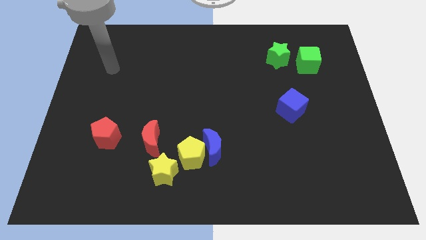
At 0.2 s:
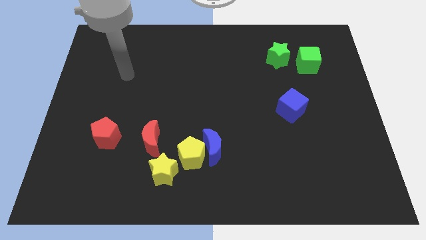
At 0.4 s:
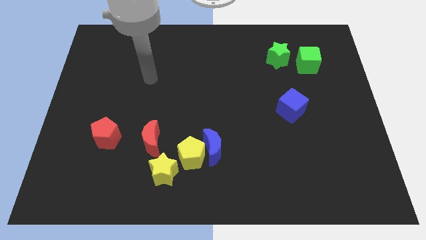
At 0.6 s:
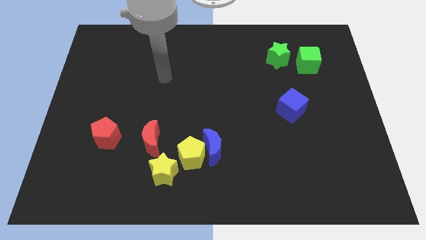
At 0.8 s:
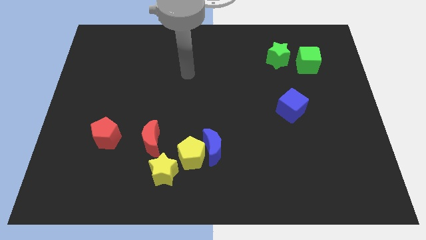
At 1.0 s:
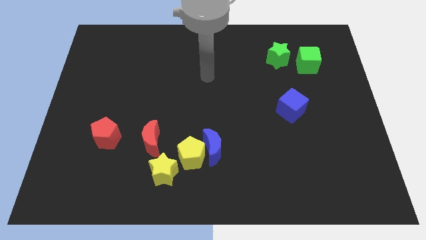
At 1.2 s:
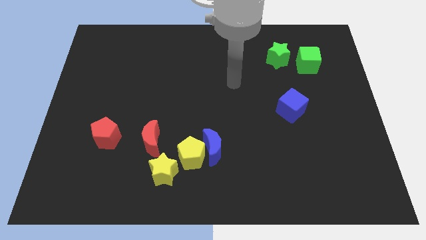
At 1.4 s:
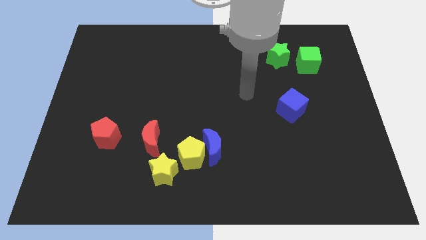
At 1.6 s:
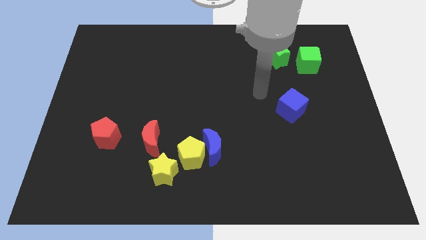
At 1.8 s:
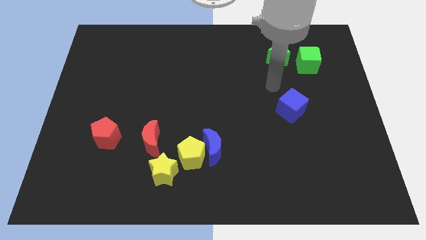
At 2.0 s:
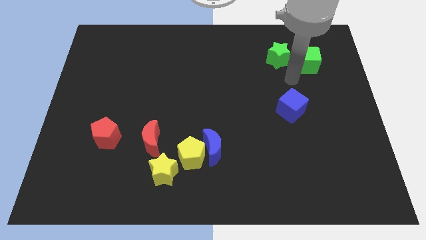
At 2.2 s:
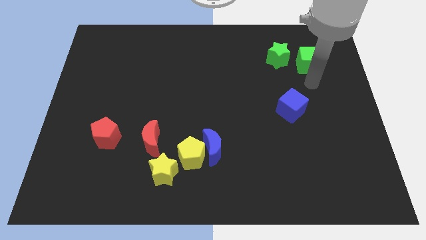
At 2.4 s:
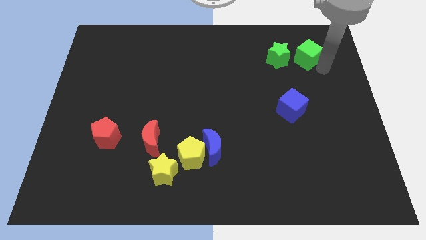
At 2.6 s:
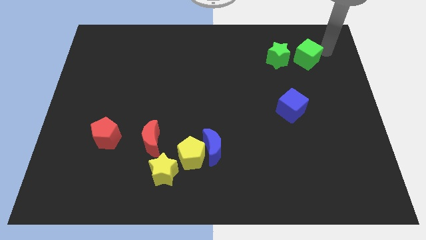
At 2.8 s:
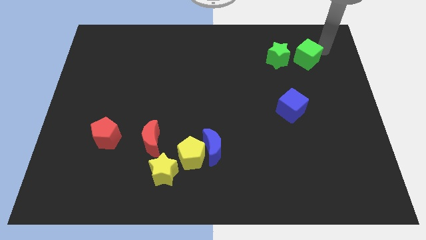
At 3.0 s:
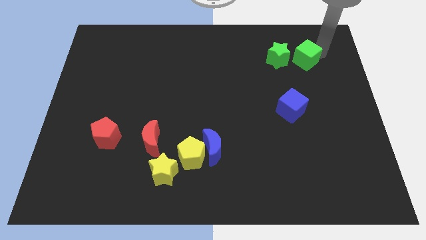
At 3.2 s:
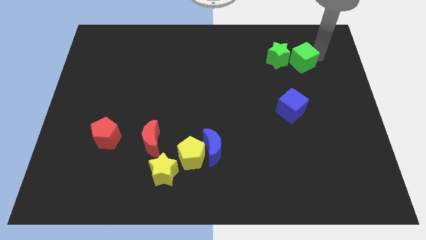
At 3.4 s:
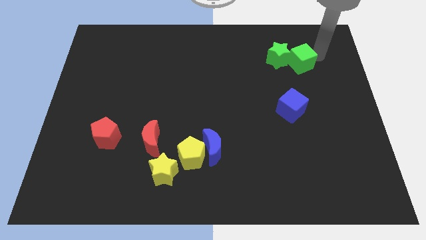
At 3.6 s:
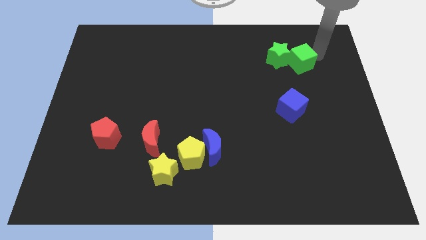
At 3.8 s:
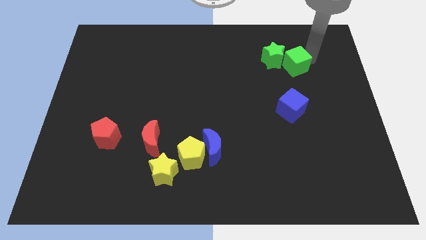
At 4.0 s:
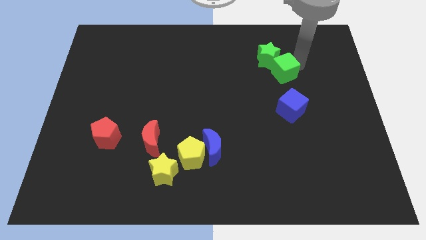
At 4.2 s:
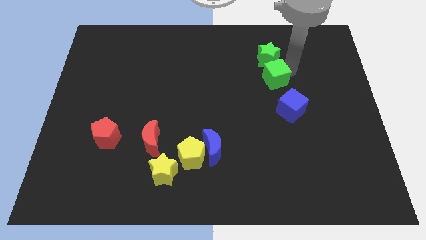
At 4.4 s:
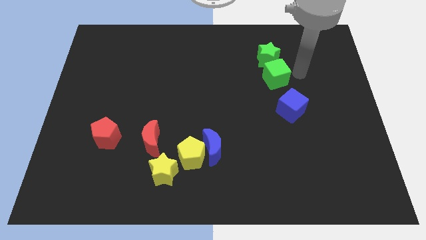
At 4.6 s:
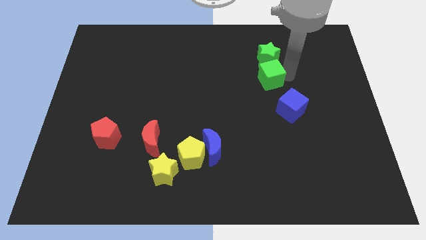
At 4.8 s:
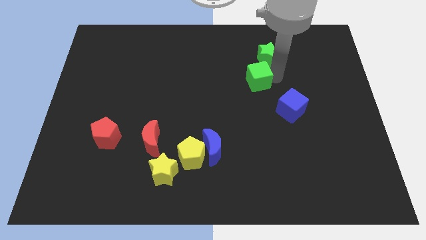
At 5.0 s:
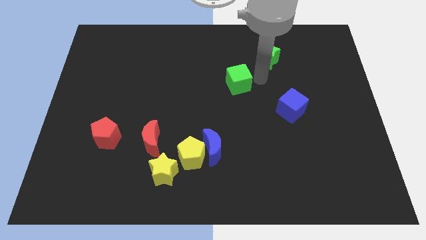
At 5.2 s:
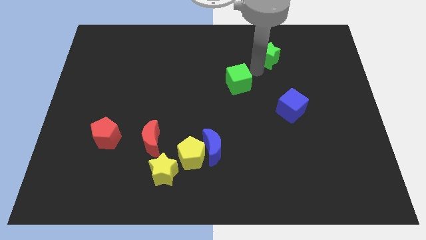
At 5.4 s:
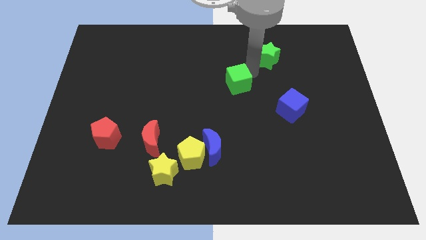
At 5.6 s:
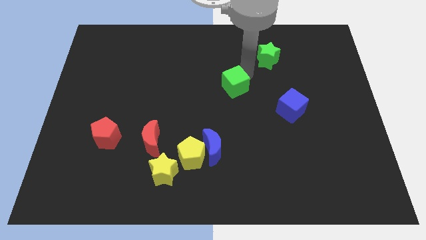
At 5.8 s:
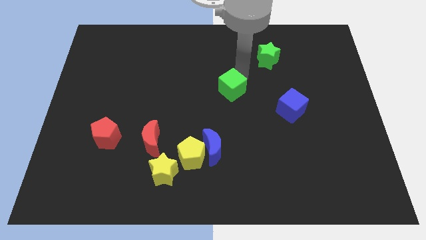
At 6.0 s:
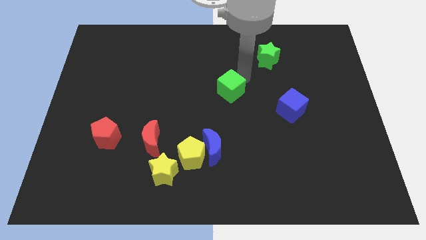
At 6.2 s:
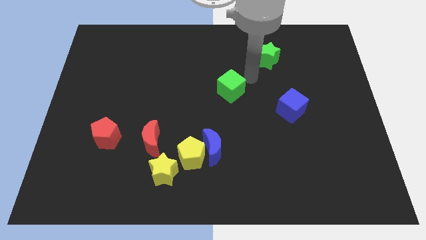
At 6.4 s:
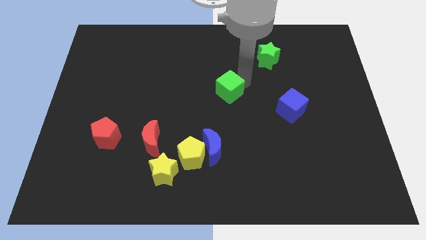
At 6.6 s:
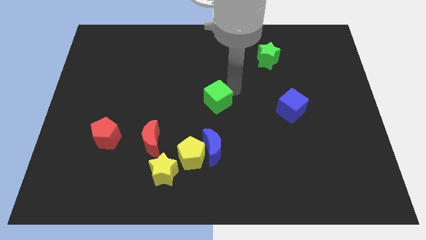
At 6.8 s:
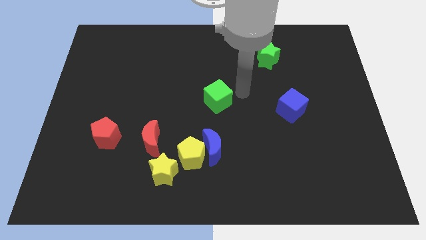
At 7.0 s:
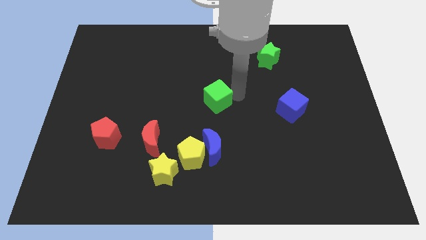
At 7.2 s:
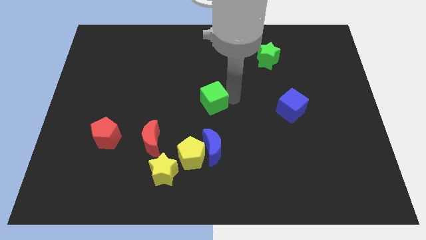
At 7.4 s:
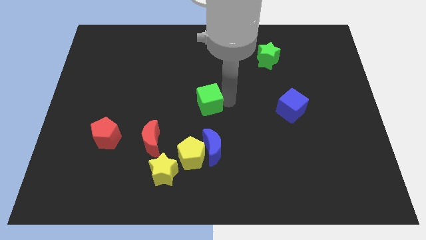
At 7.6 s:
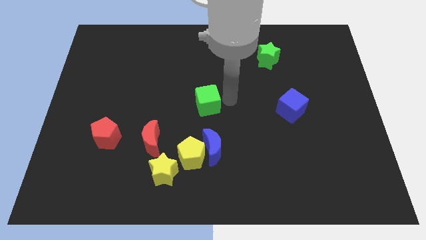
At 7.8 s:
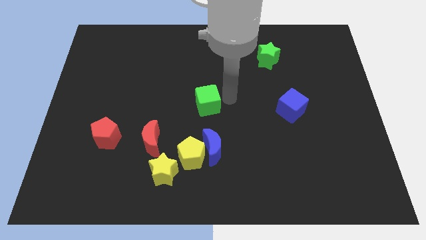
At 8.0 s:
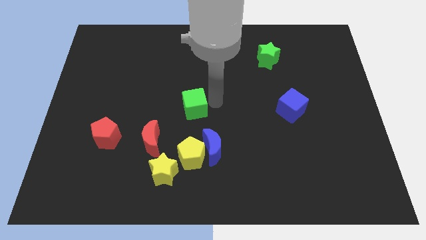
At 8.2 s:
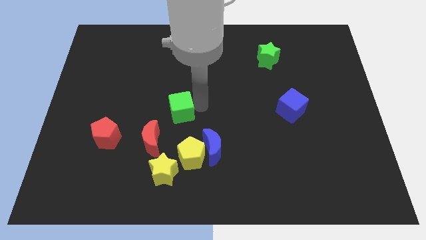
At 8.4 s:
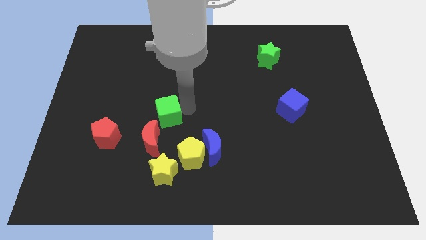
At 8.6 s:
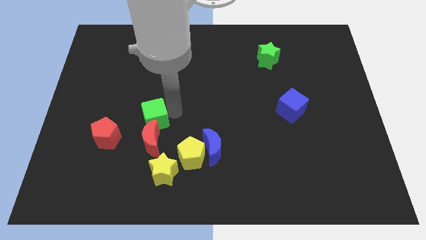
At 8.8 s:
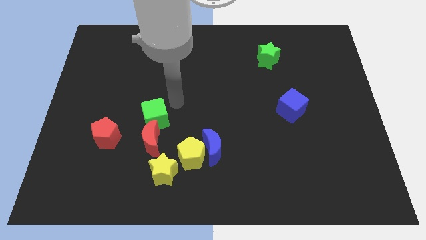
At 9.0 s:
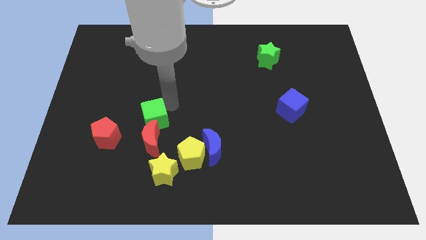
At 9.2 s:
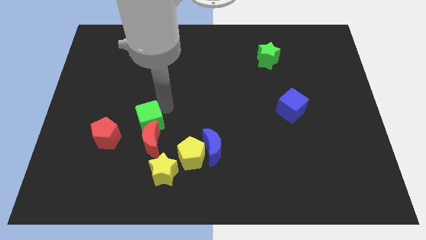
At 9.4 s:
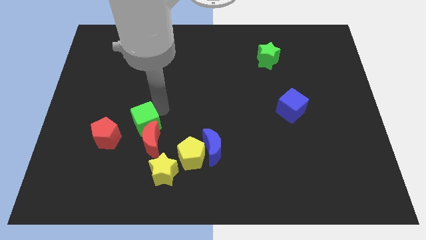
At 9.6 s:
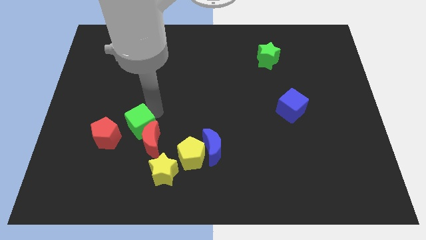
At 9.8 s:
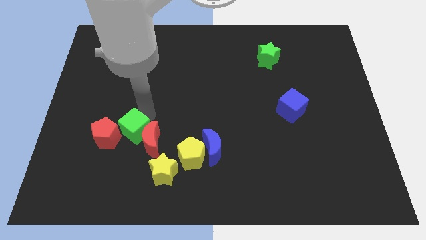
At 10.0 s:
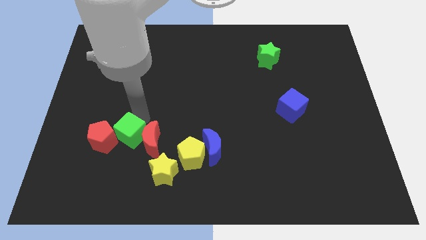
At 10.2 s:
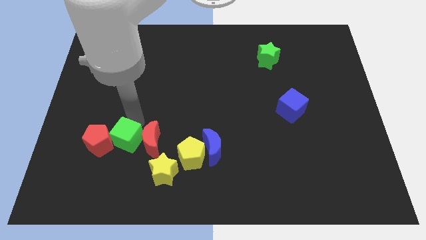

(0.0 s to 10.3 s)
move the green cube to the bottom right side of the red pentagon

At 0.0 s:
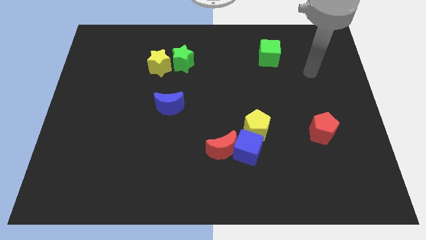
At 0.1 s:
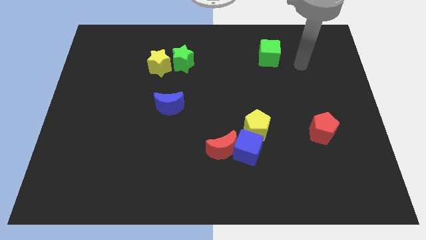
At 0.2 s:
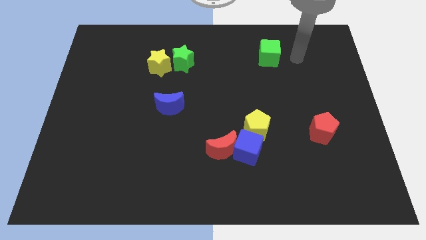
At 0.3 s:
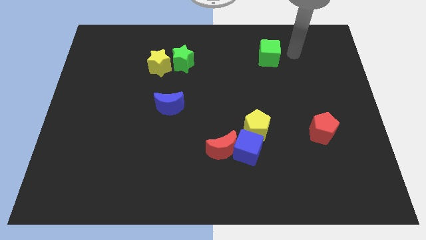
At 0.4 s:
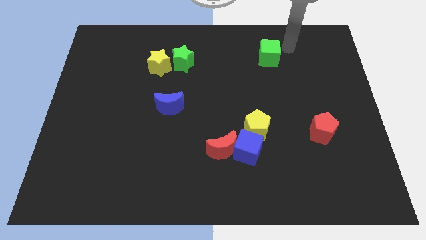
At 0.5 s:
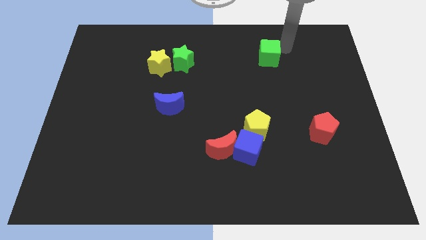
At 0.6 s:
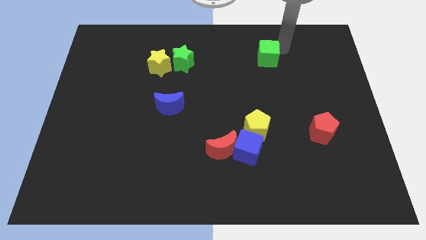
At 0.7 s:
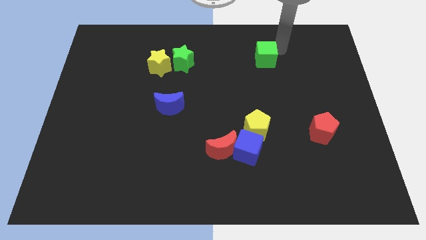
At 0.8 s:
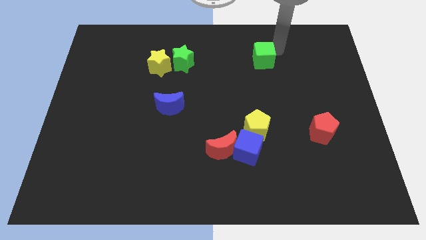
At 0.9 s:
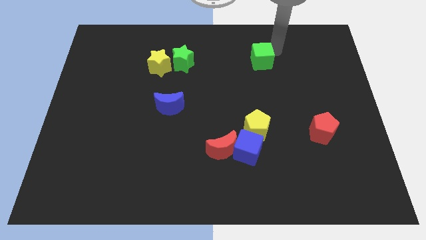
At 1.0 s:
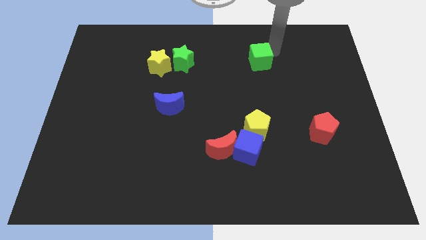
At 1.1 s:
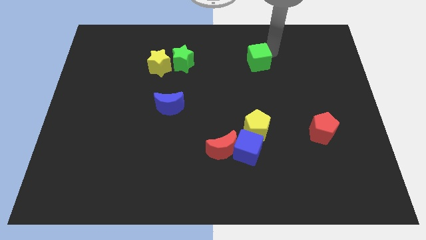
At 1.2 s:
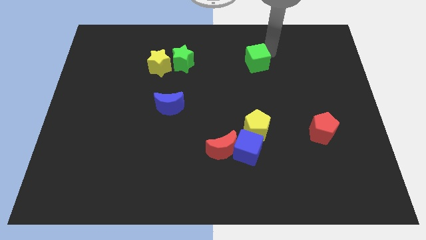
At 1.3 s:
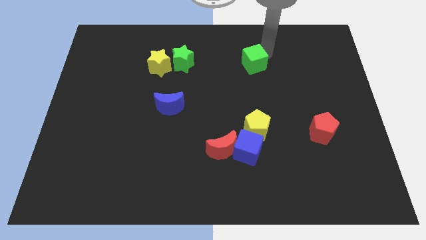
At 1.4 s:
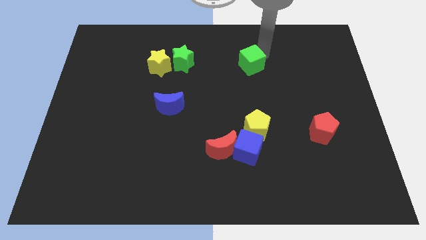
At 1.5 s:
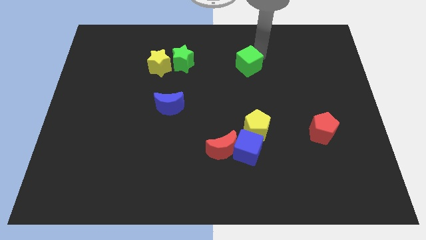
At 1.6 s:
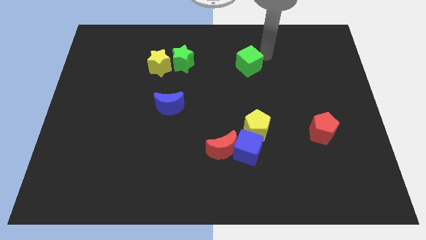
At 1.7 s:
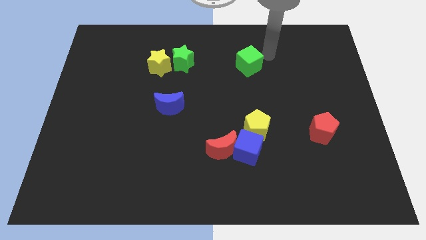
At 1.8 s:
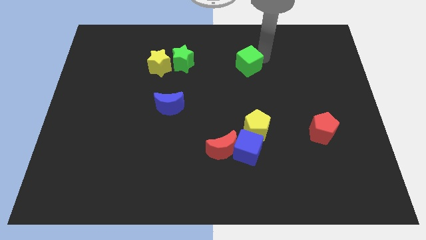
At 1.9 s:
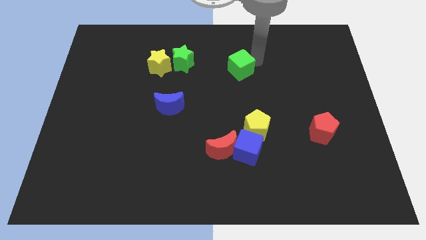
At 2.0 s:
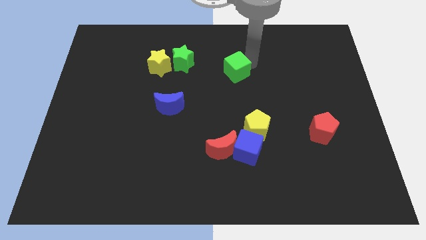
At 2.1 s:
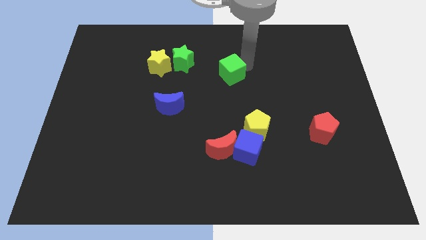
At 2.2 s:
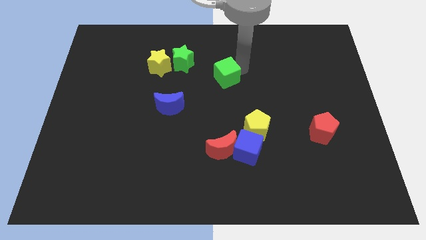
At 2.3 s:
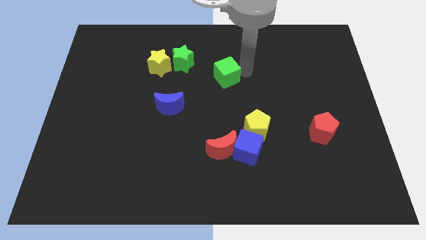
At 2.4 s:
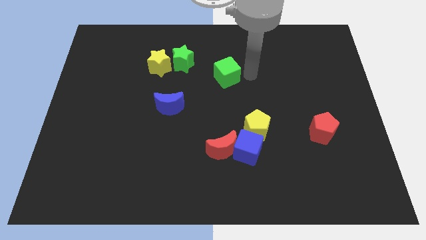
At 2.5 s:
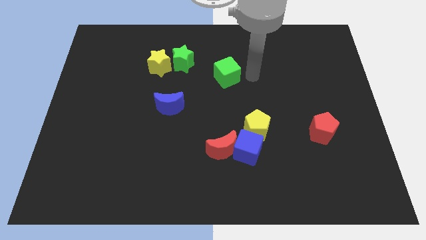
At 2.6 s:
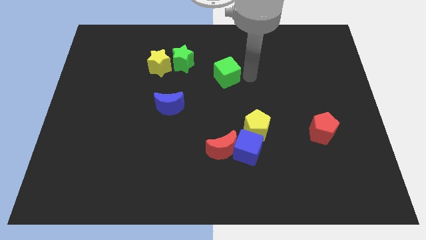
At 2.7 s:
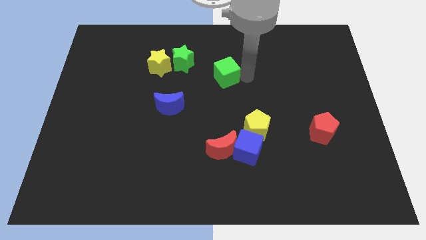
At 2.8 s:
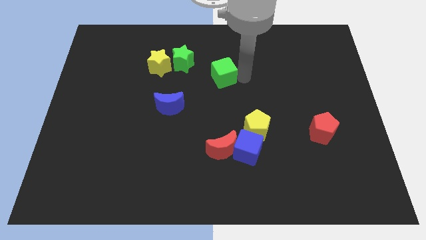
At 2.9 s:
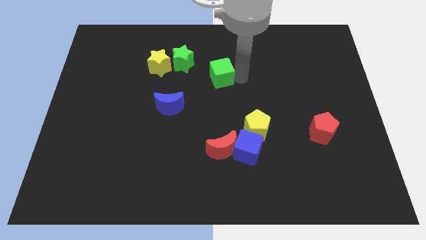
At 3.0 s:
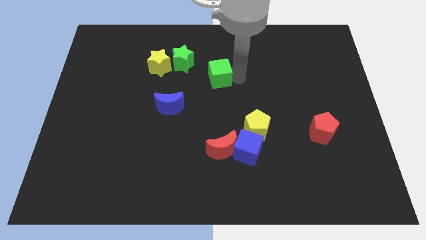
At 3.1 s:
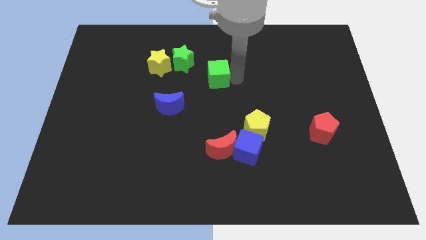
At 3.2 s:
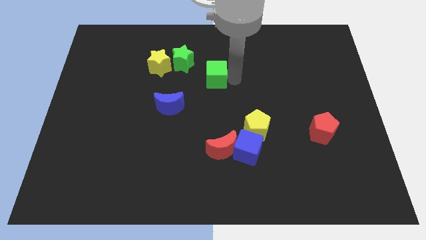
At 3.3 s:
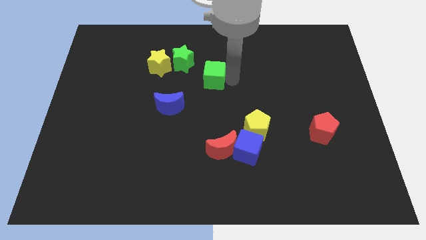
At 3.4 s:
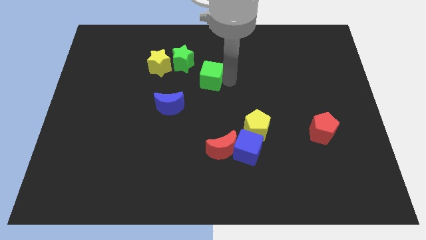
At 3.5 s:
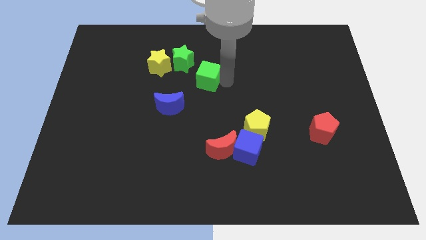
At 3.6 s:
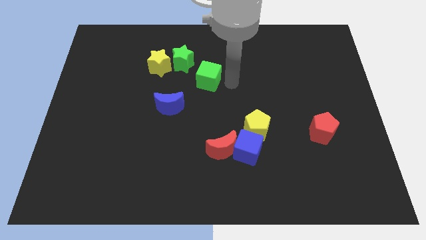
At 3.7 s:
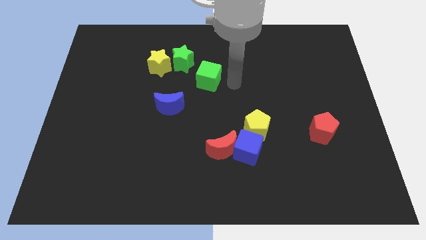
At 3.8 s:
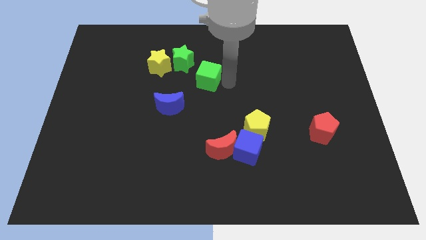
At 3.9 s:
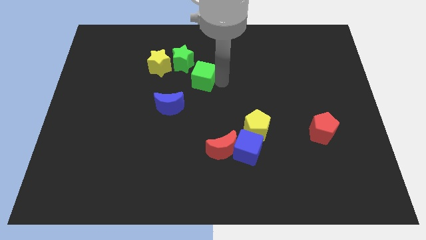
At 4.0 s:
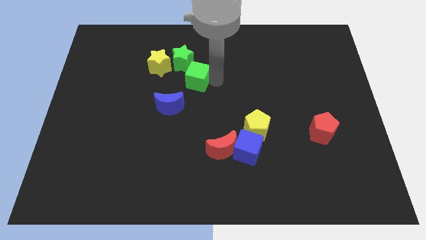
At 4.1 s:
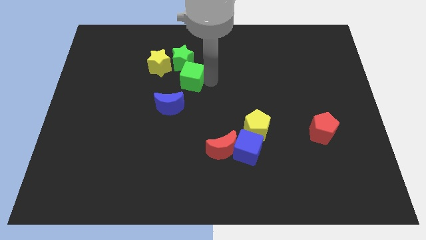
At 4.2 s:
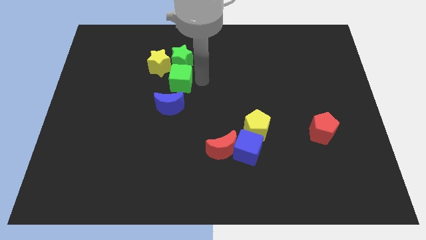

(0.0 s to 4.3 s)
put the green cube diagonally down and to the left of the green star
